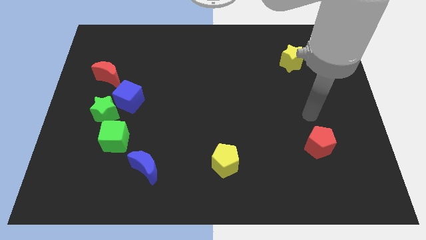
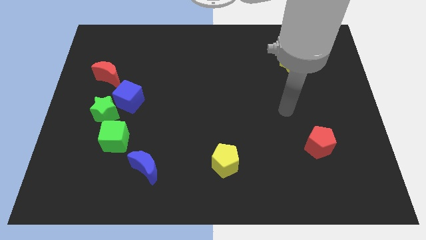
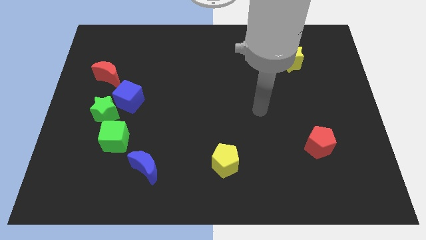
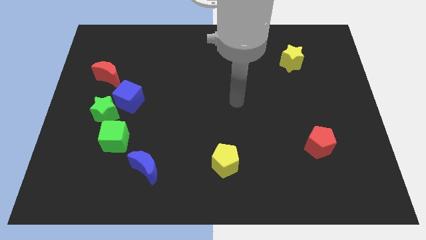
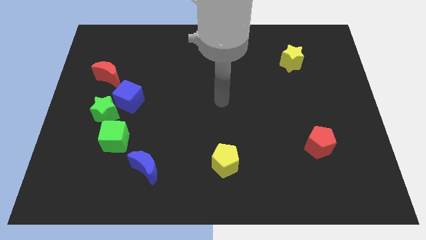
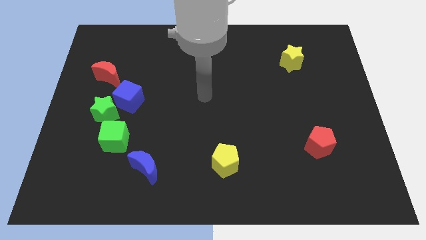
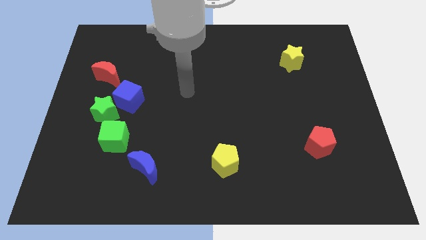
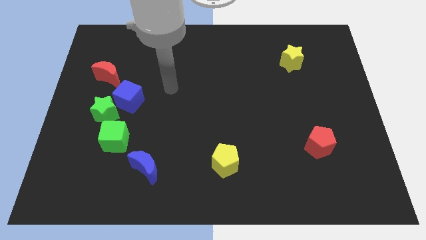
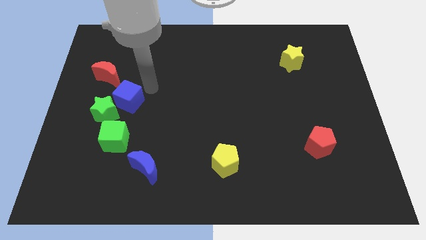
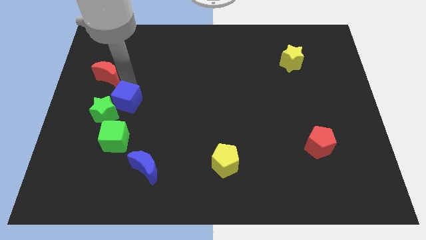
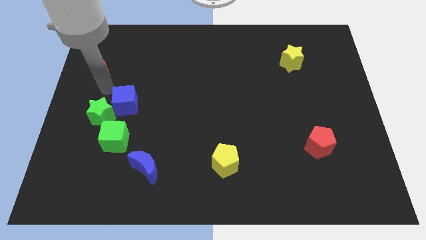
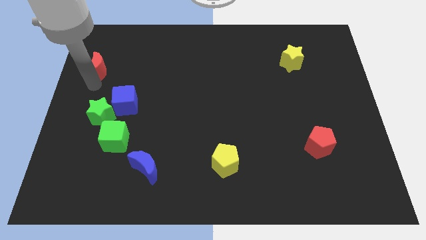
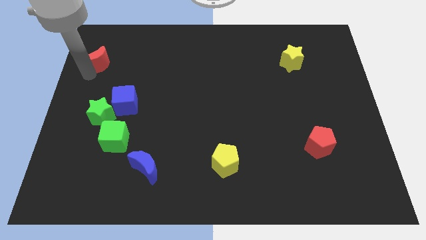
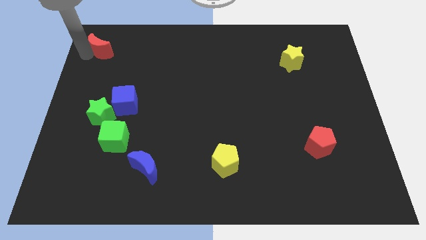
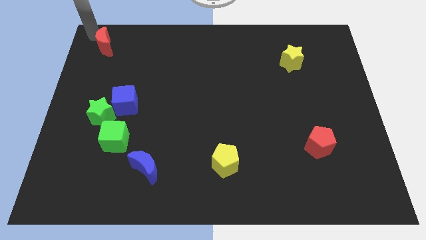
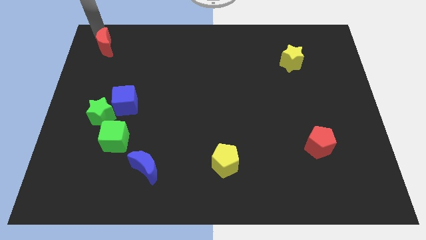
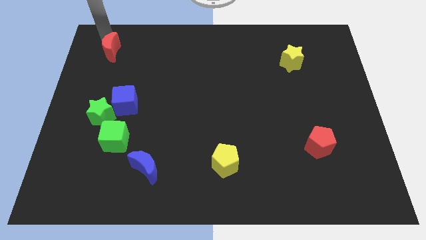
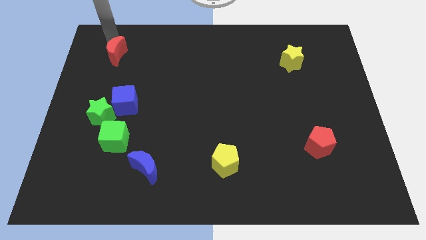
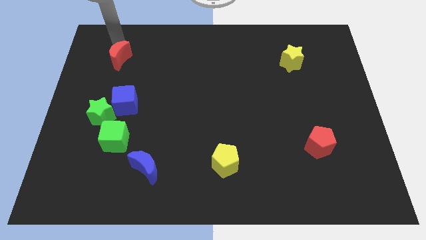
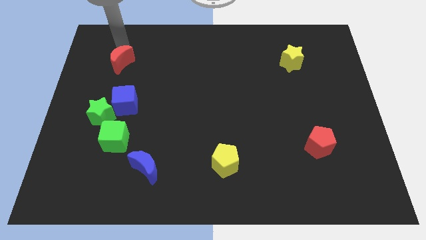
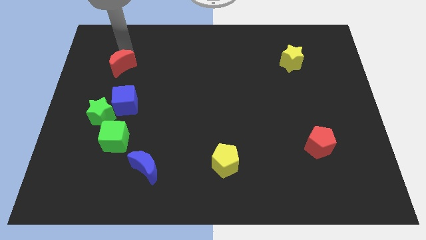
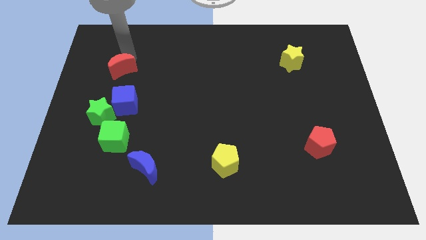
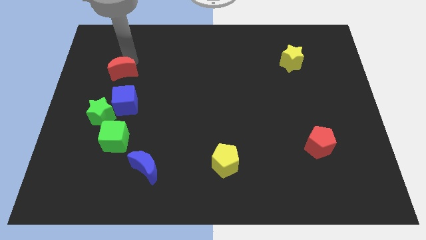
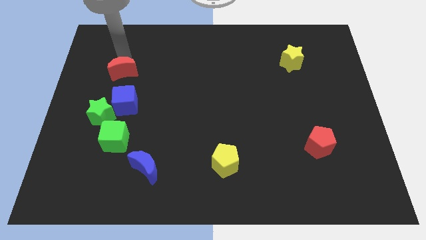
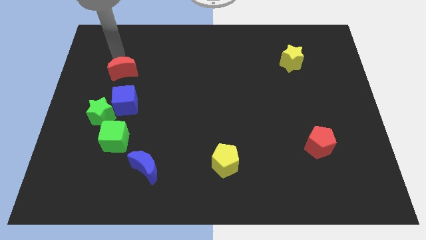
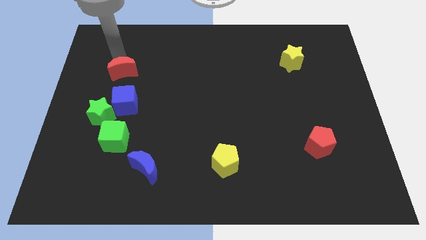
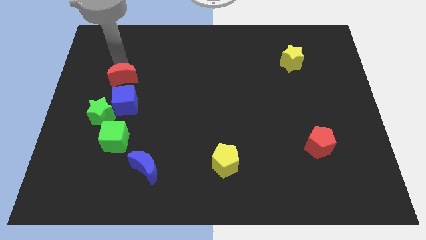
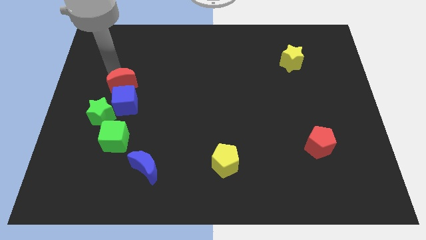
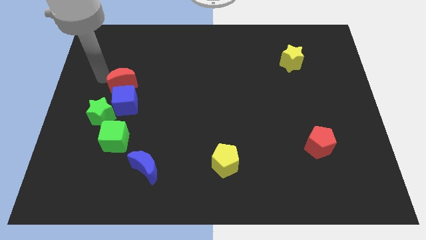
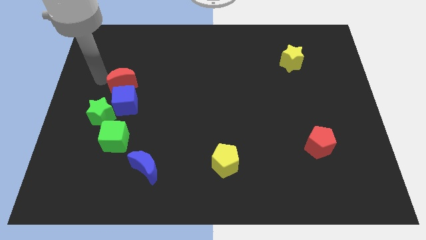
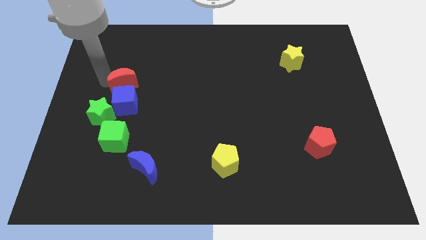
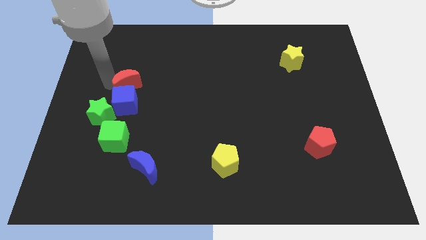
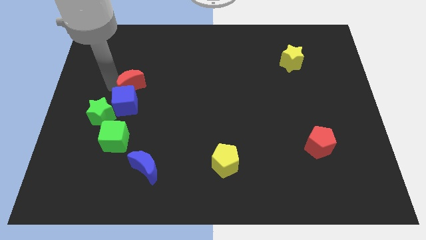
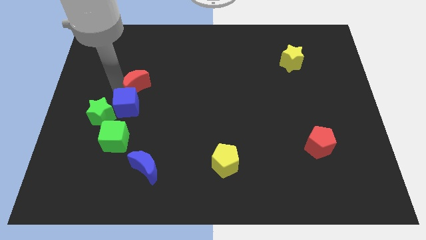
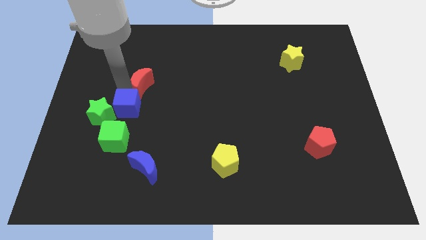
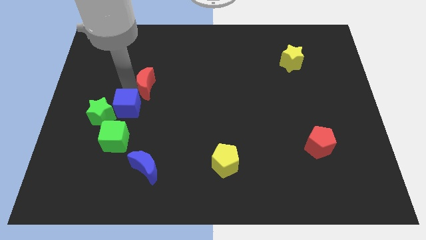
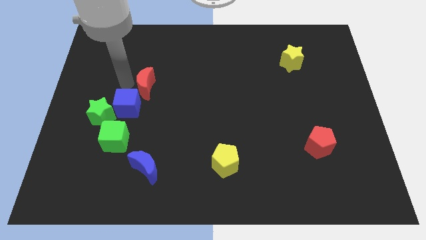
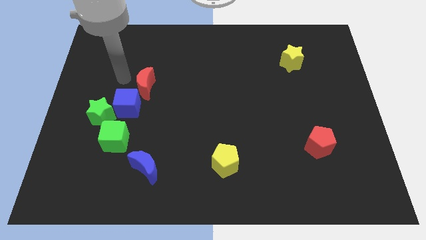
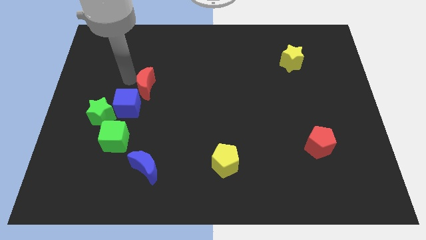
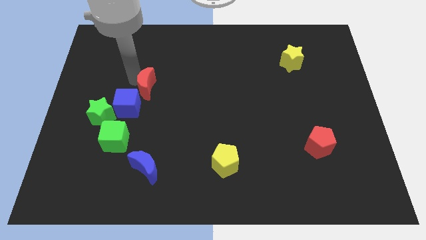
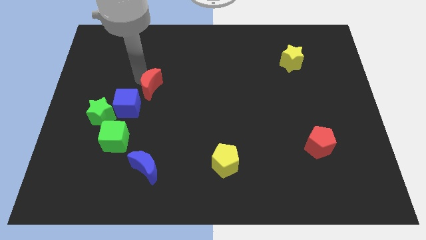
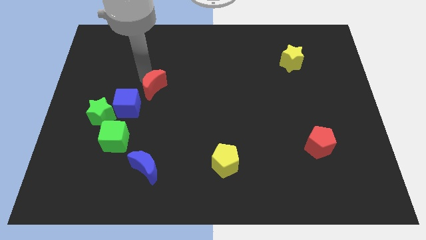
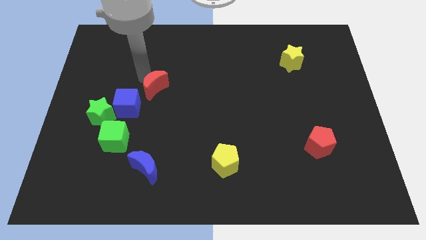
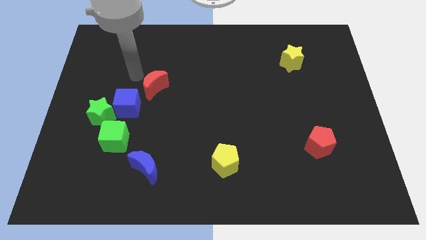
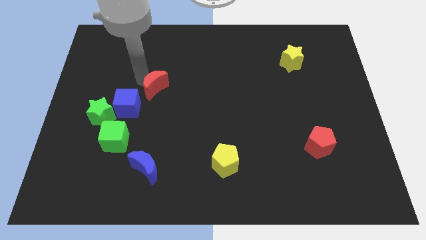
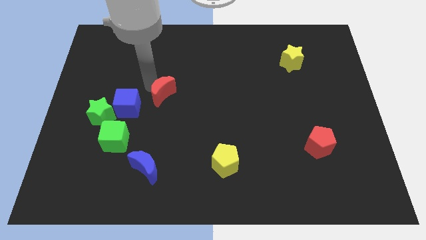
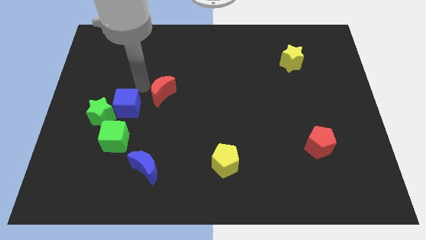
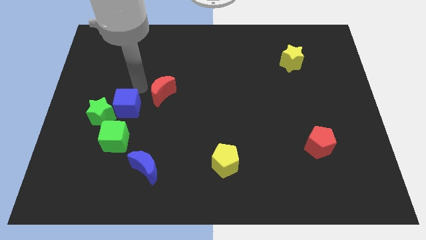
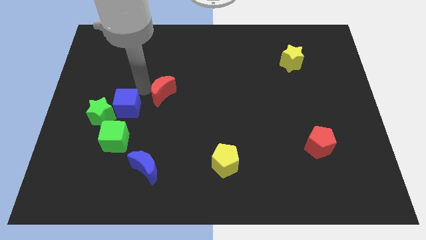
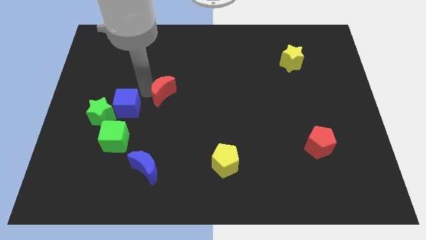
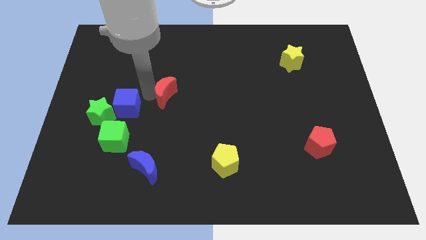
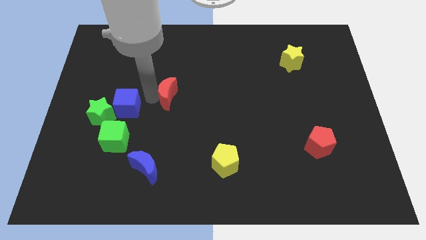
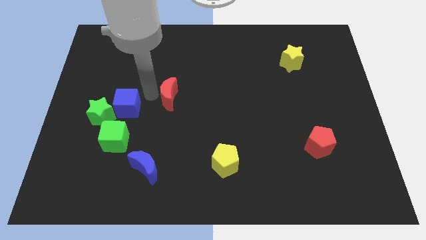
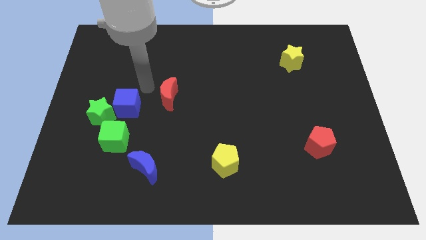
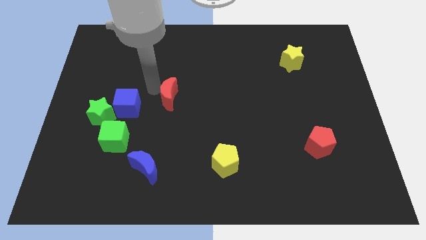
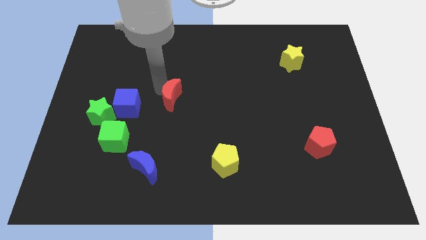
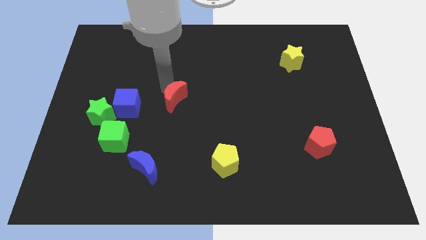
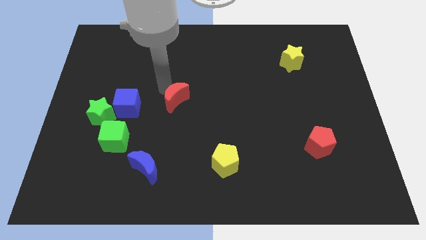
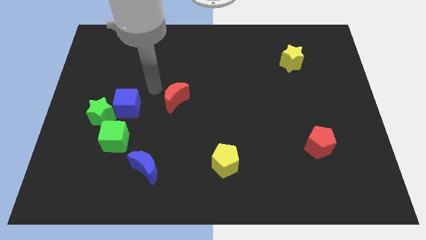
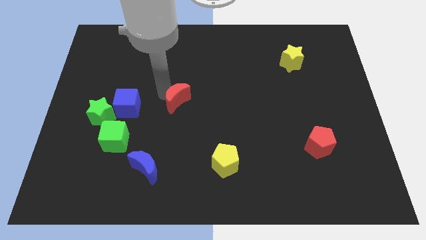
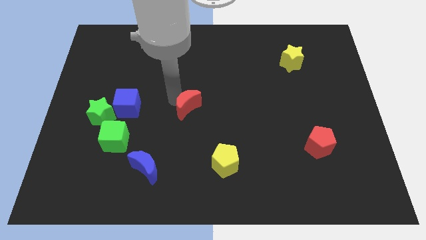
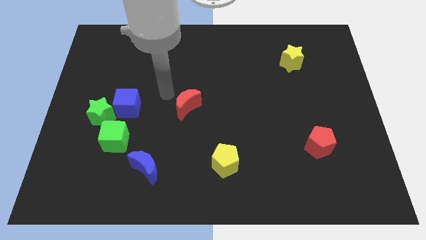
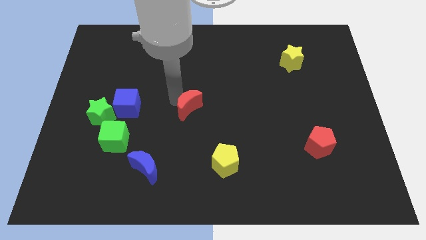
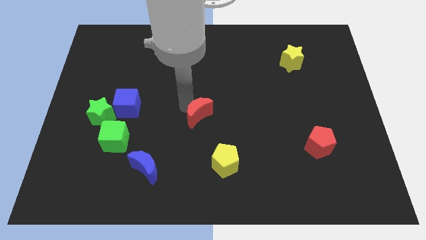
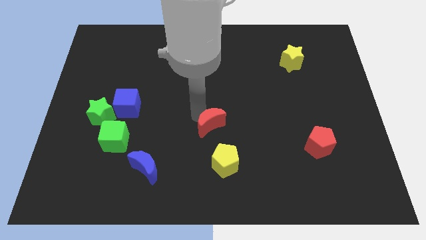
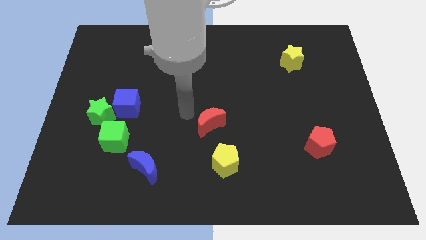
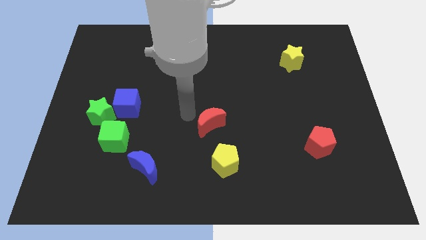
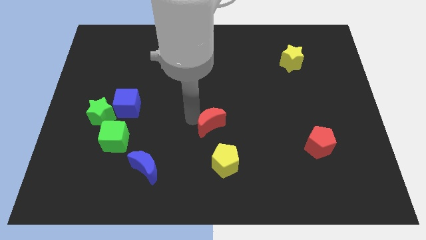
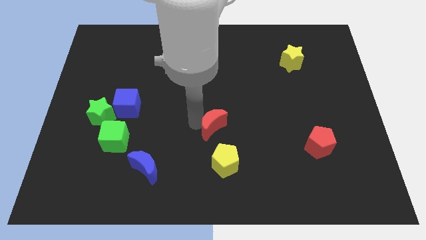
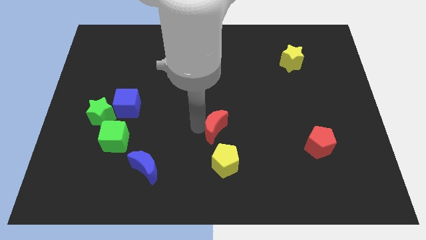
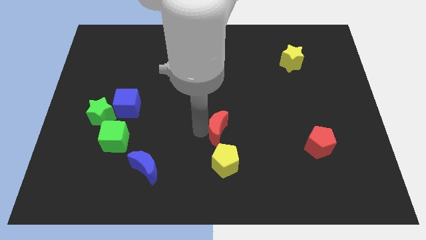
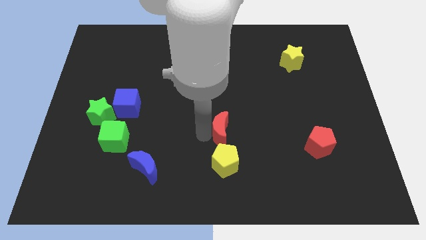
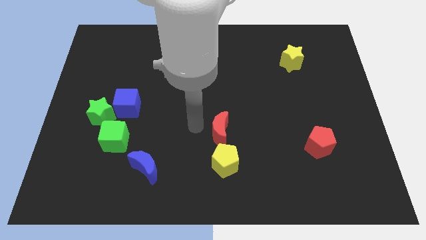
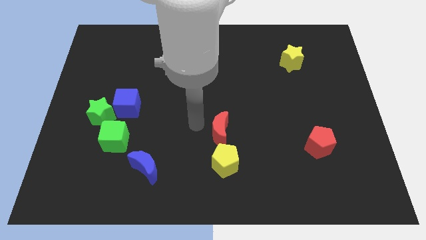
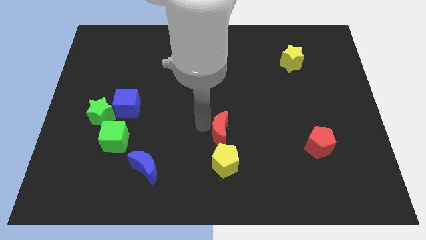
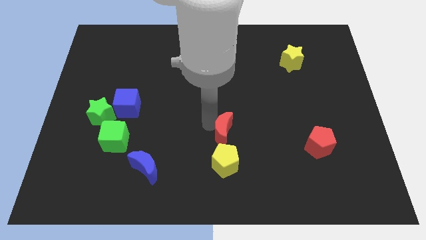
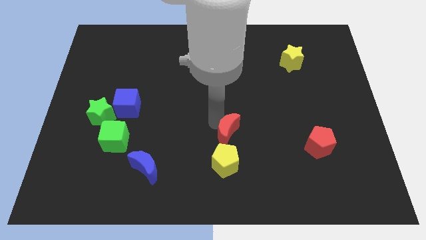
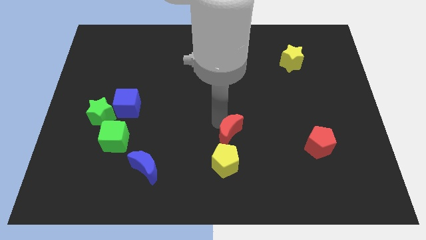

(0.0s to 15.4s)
push the red moon diagonally up and to the right of the yellow pentagon
